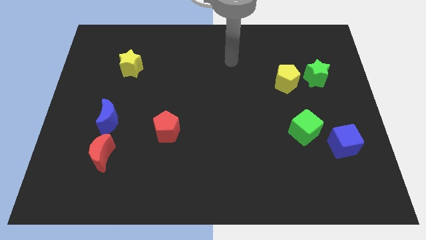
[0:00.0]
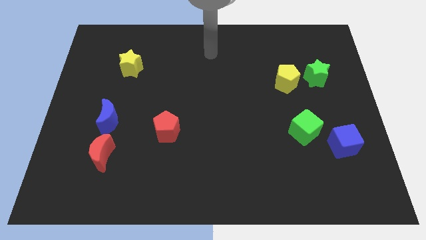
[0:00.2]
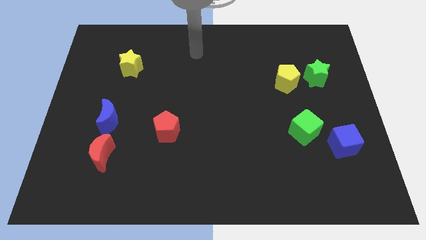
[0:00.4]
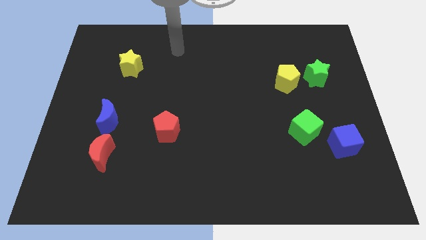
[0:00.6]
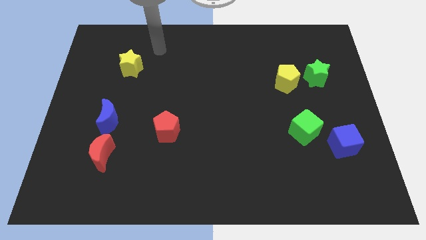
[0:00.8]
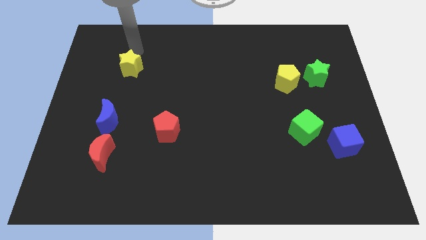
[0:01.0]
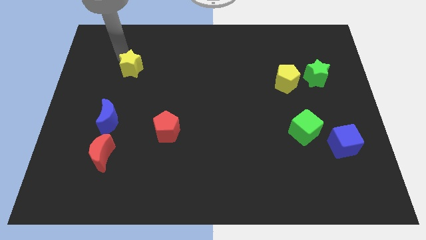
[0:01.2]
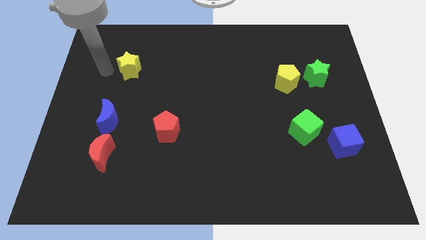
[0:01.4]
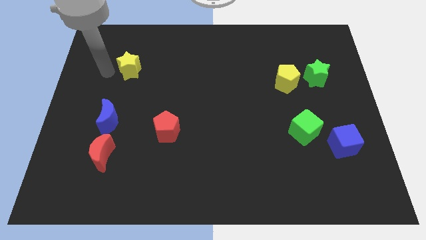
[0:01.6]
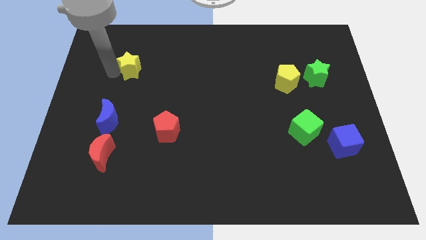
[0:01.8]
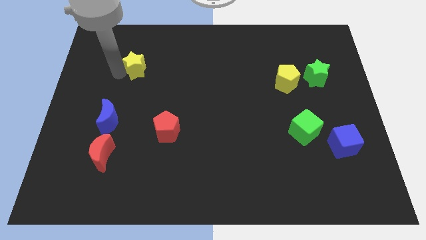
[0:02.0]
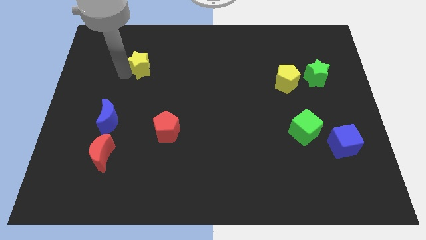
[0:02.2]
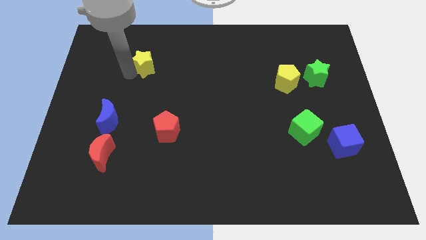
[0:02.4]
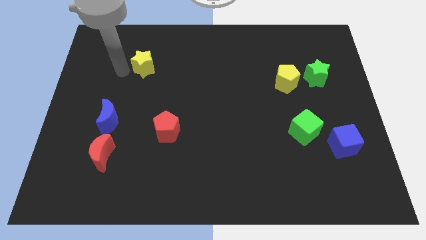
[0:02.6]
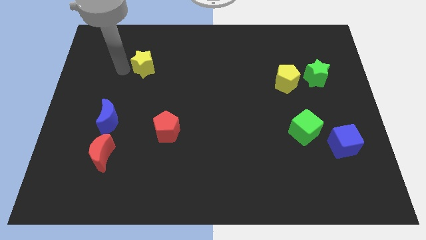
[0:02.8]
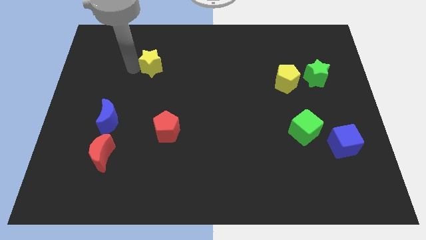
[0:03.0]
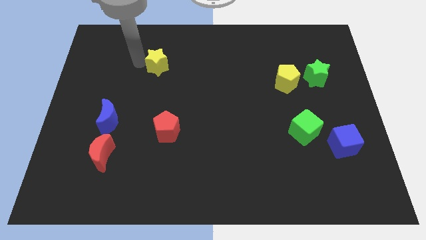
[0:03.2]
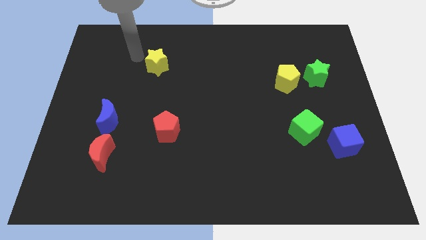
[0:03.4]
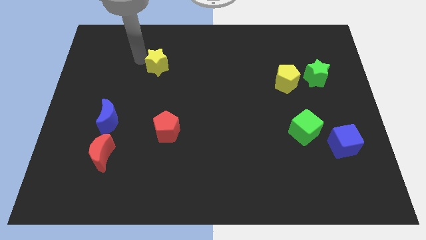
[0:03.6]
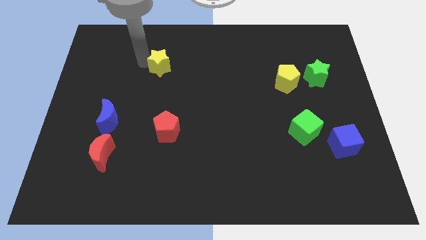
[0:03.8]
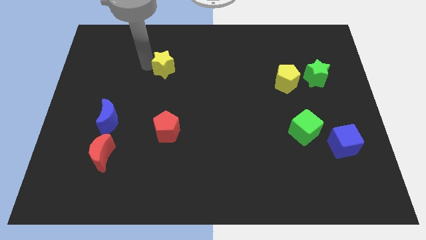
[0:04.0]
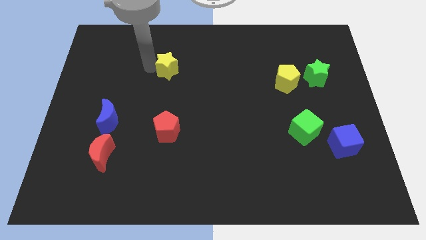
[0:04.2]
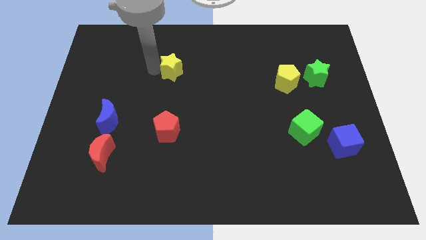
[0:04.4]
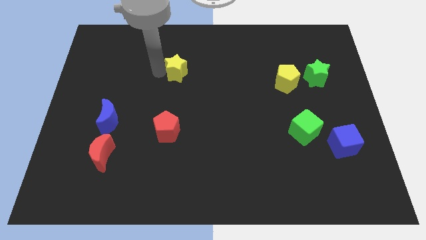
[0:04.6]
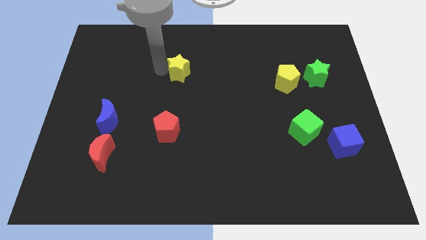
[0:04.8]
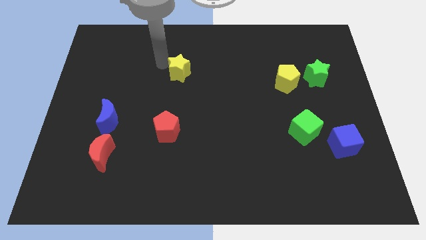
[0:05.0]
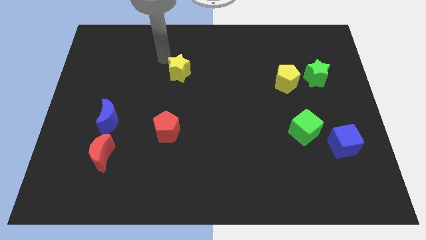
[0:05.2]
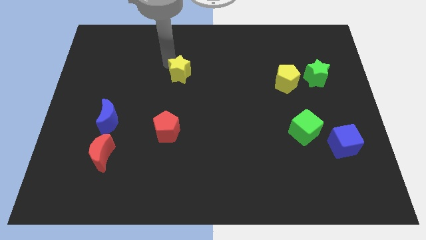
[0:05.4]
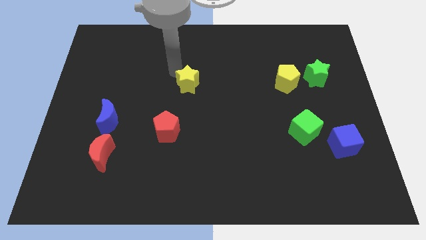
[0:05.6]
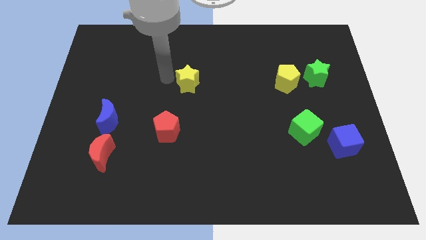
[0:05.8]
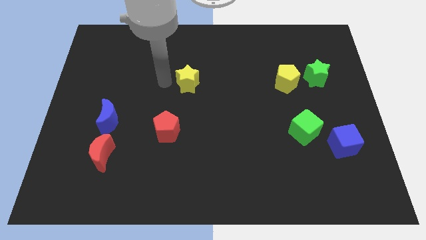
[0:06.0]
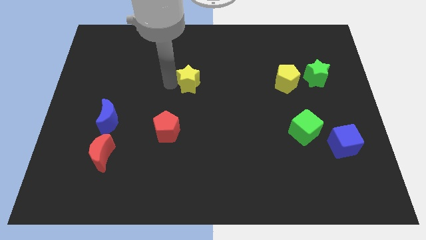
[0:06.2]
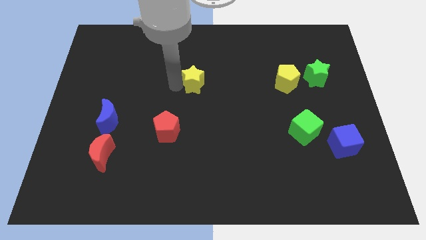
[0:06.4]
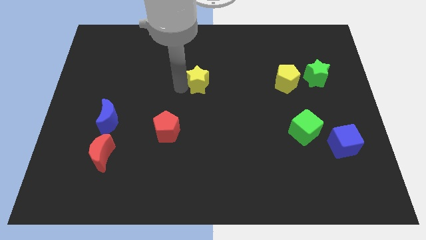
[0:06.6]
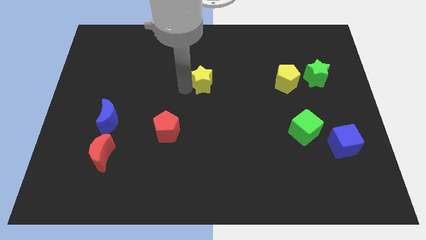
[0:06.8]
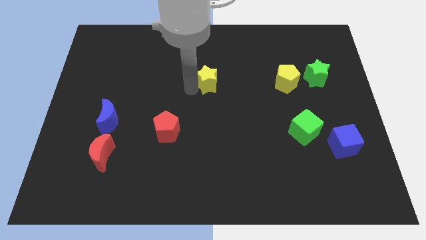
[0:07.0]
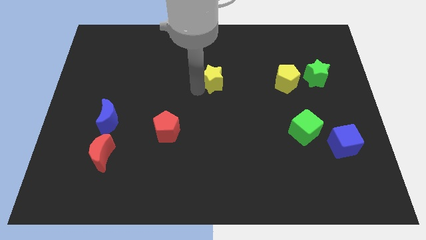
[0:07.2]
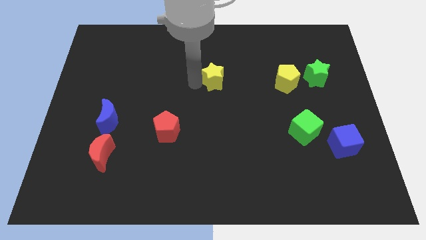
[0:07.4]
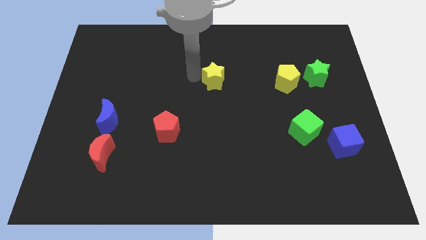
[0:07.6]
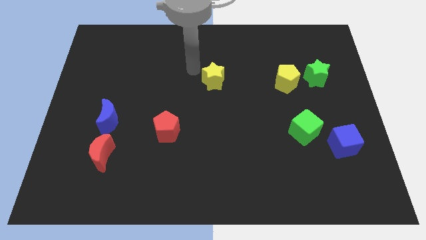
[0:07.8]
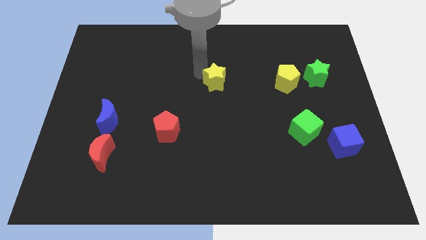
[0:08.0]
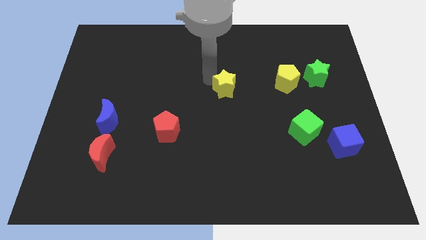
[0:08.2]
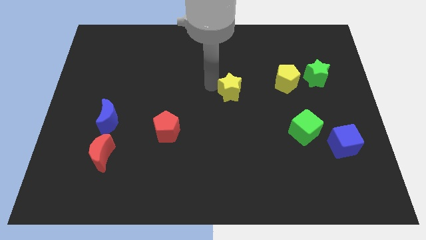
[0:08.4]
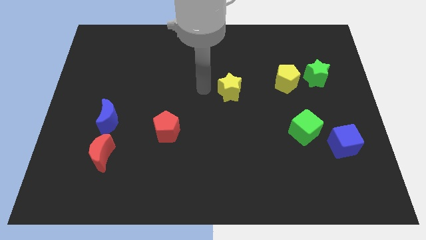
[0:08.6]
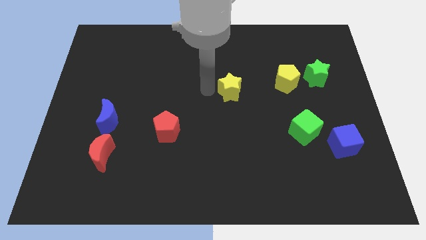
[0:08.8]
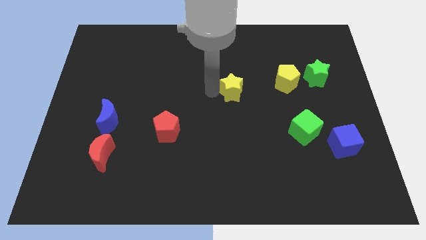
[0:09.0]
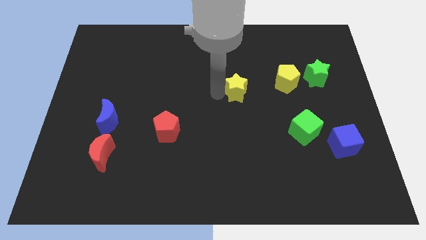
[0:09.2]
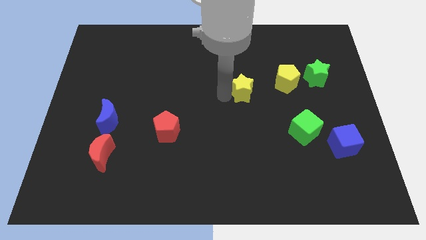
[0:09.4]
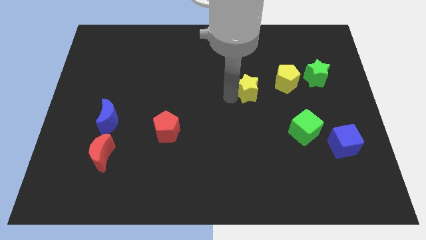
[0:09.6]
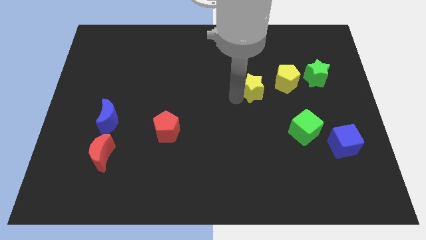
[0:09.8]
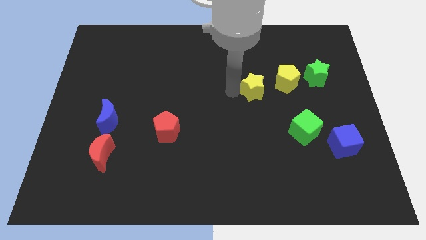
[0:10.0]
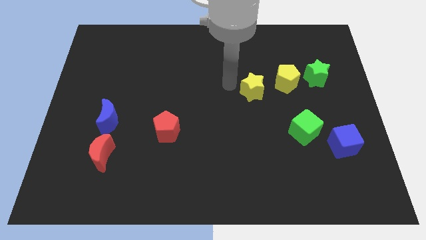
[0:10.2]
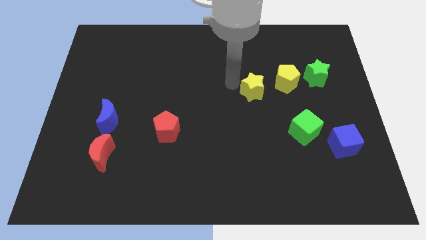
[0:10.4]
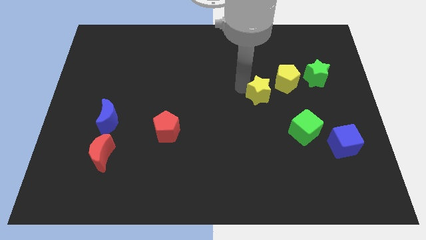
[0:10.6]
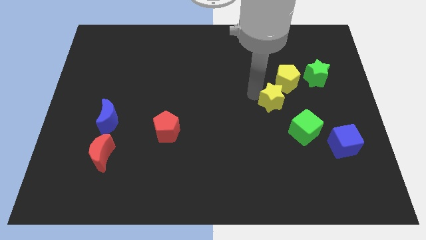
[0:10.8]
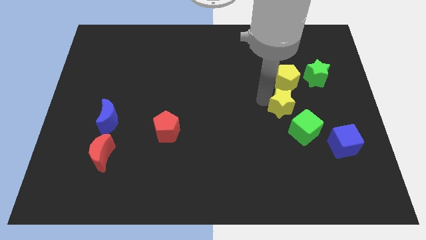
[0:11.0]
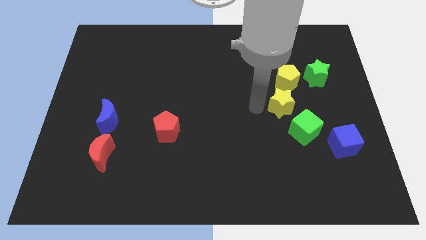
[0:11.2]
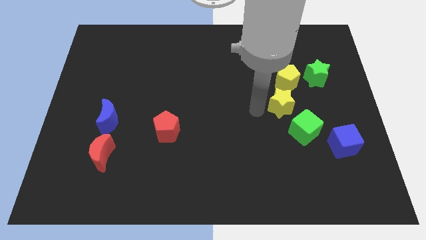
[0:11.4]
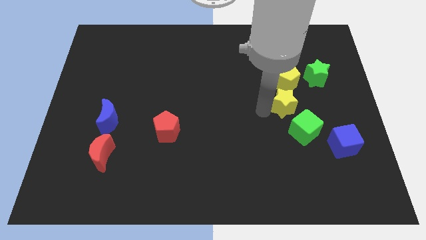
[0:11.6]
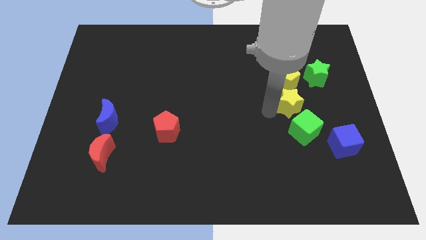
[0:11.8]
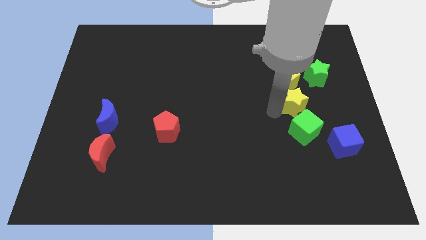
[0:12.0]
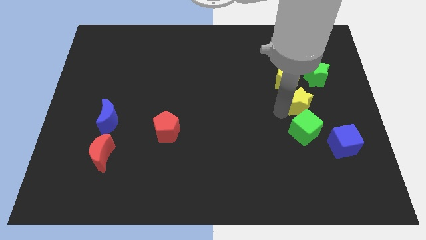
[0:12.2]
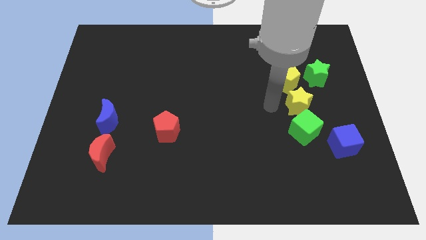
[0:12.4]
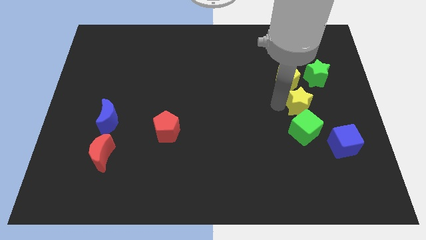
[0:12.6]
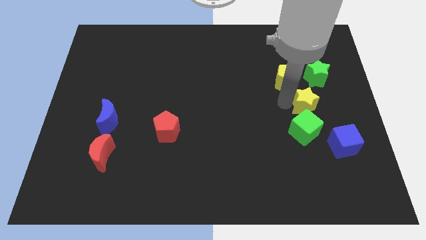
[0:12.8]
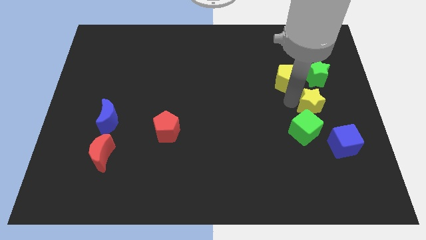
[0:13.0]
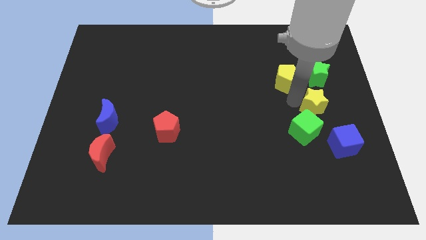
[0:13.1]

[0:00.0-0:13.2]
slide the yellow star to the top of the blue cube
